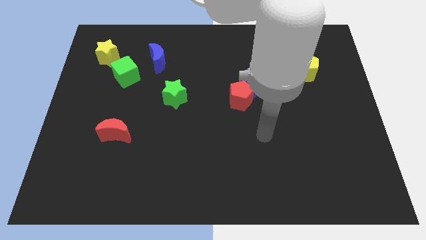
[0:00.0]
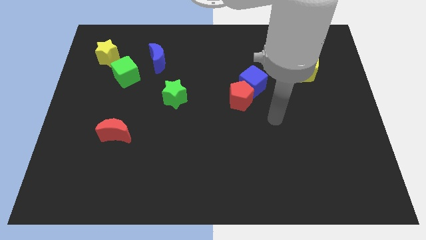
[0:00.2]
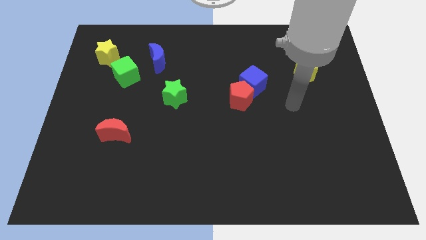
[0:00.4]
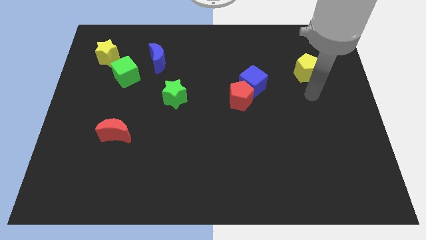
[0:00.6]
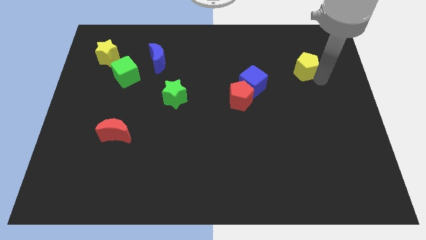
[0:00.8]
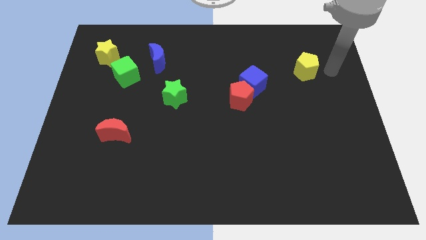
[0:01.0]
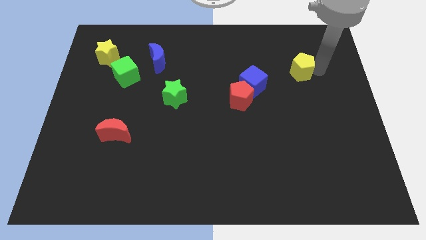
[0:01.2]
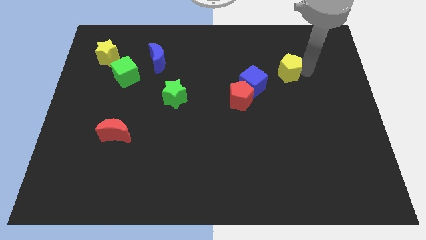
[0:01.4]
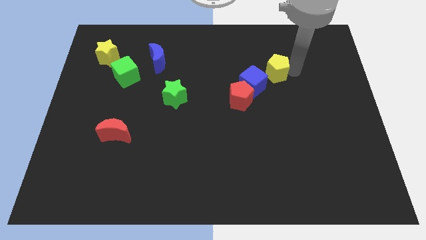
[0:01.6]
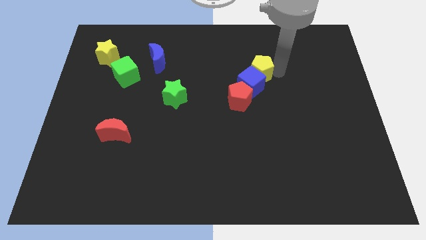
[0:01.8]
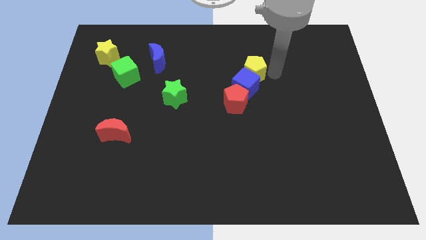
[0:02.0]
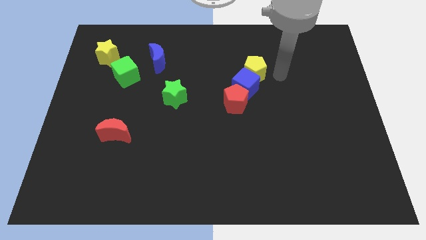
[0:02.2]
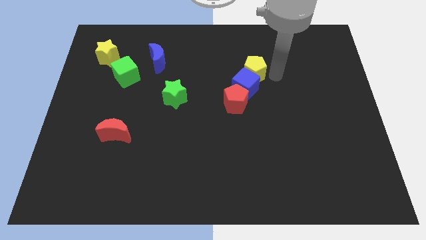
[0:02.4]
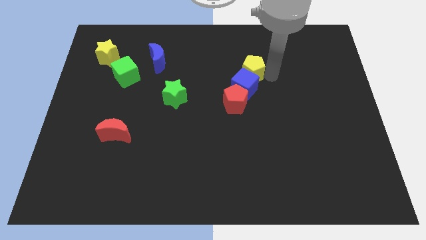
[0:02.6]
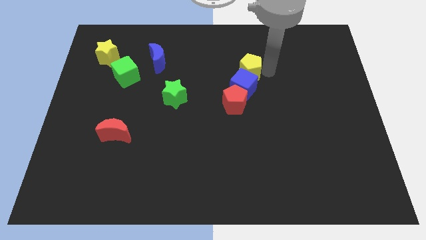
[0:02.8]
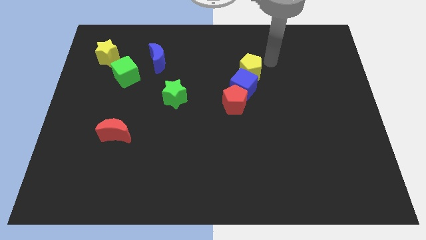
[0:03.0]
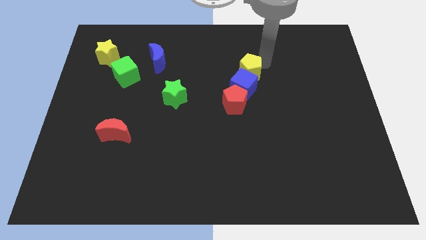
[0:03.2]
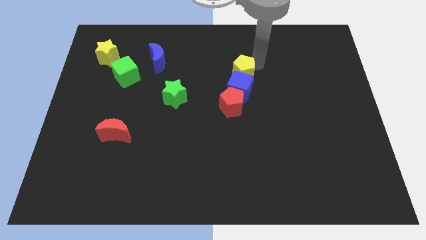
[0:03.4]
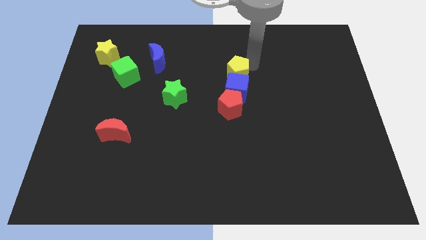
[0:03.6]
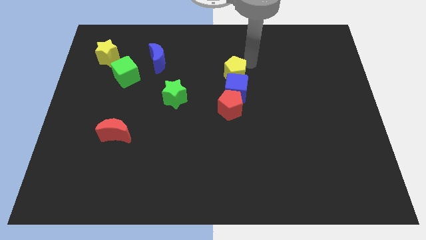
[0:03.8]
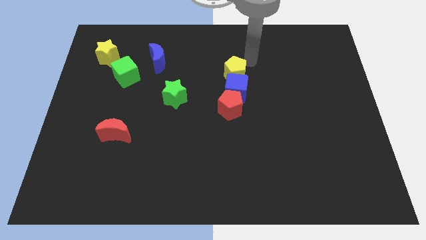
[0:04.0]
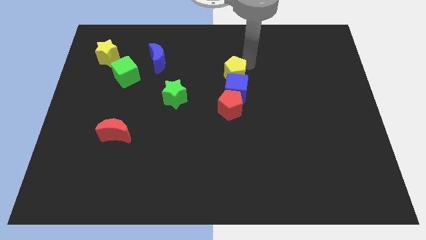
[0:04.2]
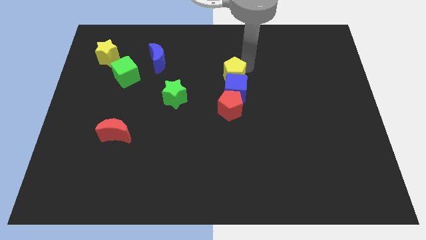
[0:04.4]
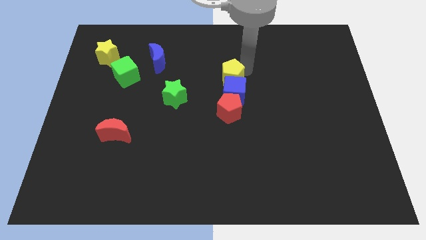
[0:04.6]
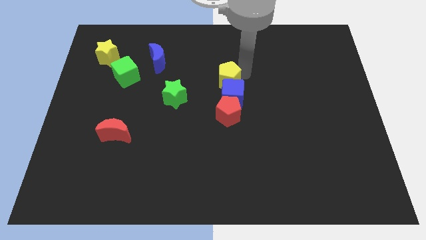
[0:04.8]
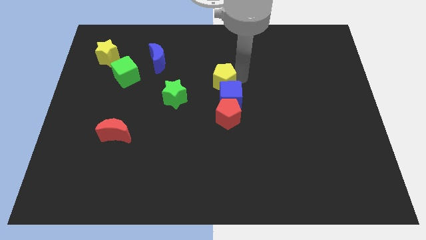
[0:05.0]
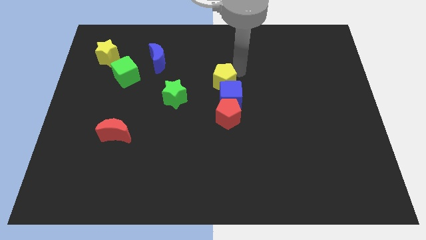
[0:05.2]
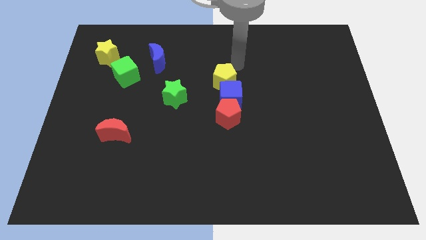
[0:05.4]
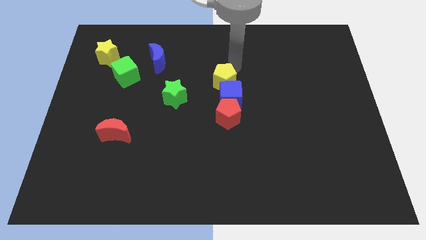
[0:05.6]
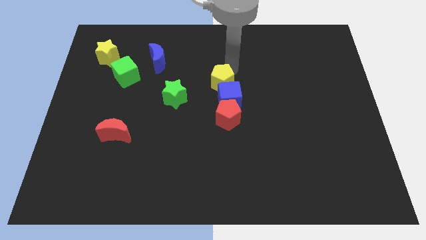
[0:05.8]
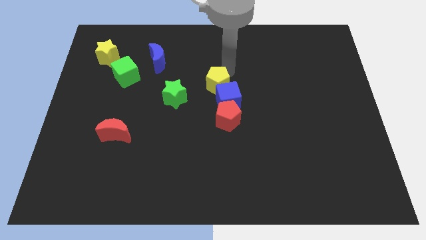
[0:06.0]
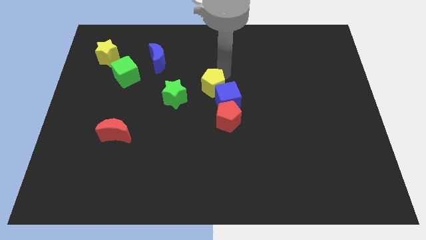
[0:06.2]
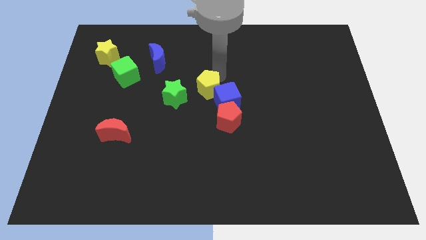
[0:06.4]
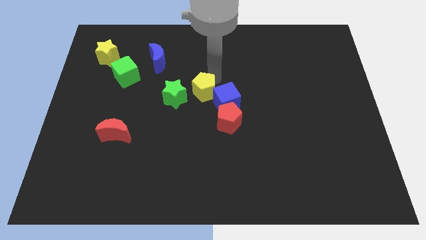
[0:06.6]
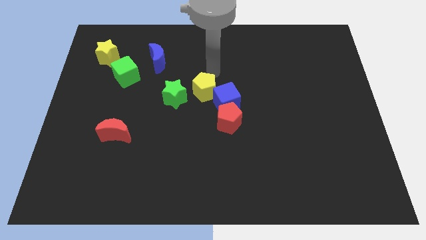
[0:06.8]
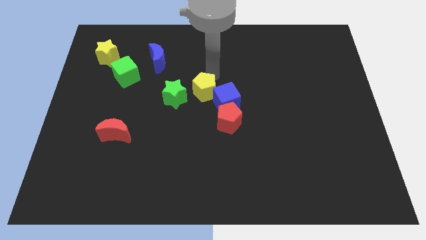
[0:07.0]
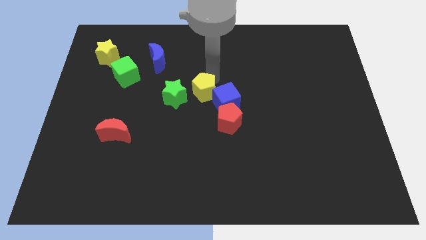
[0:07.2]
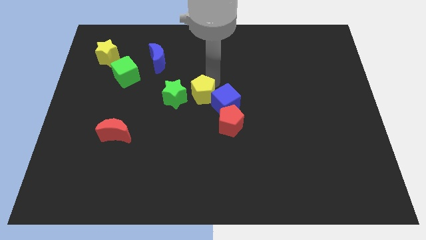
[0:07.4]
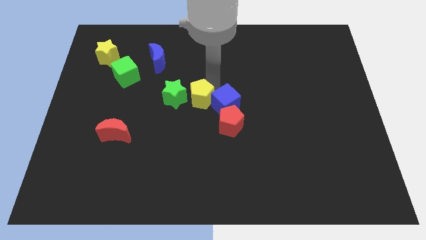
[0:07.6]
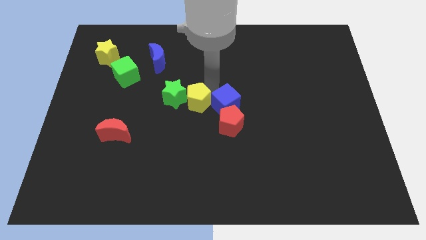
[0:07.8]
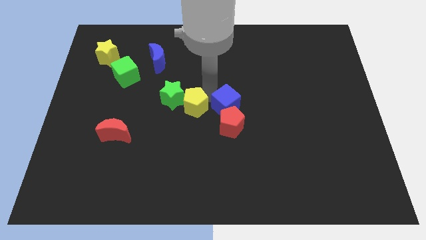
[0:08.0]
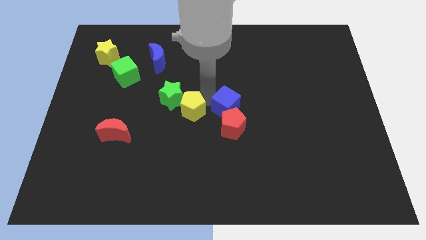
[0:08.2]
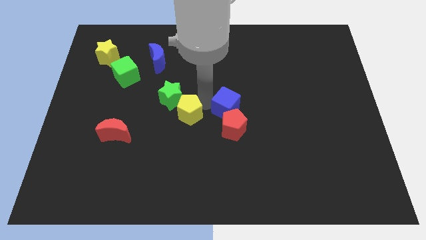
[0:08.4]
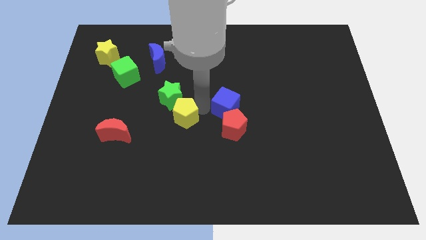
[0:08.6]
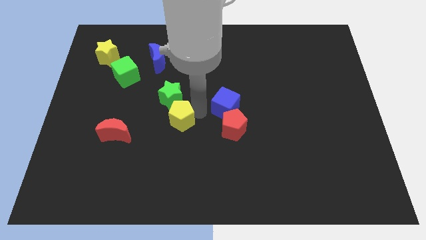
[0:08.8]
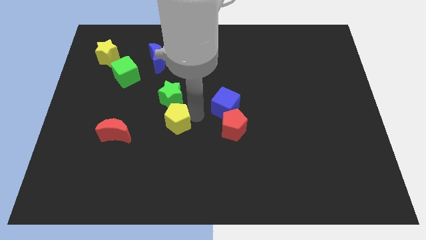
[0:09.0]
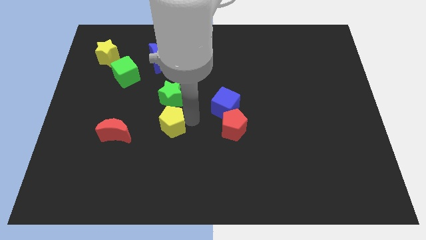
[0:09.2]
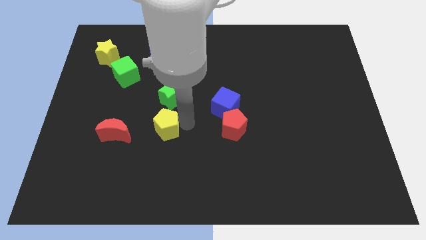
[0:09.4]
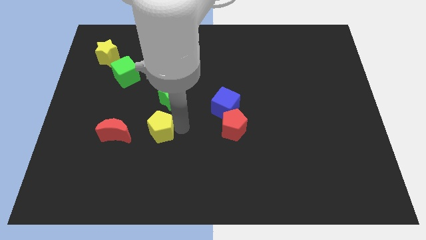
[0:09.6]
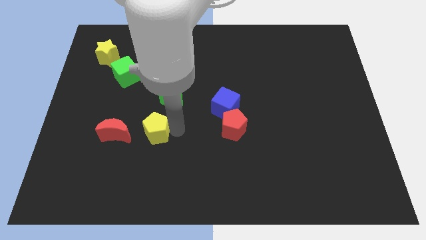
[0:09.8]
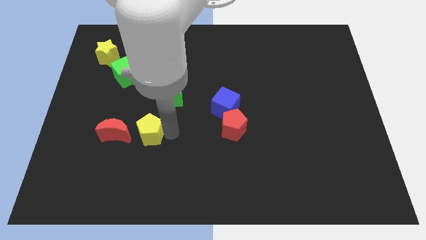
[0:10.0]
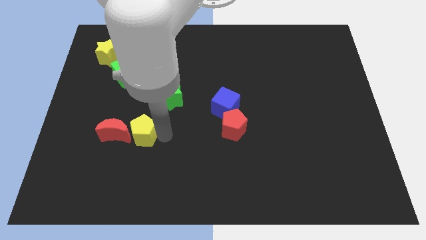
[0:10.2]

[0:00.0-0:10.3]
put the yellow pentagon next to the red moon

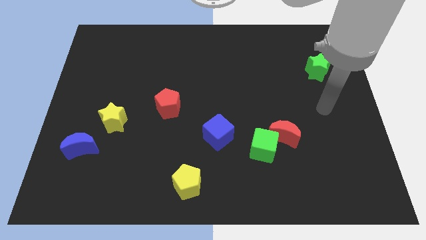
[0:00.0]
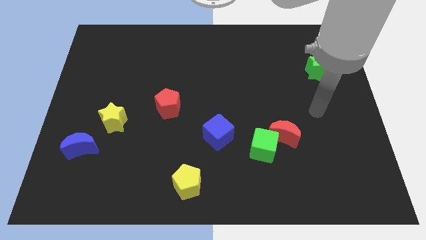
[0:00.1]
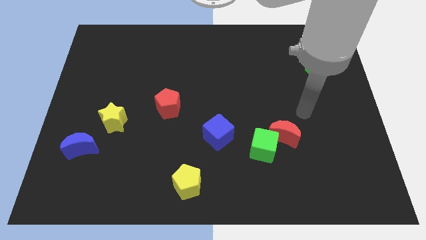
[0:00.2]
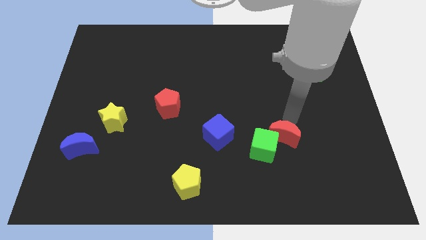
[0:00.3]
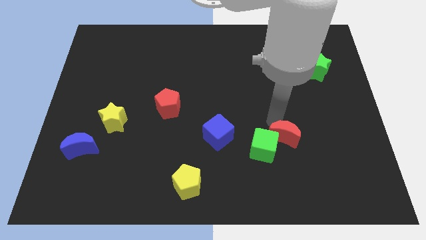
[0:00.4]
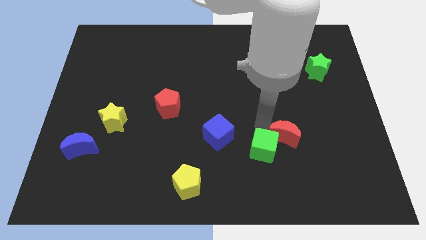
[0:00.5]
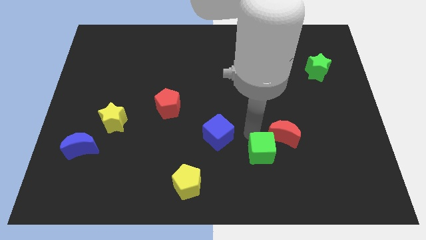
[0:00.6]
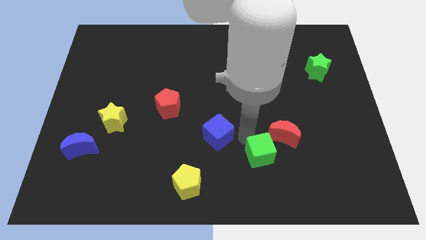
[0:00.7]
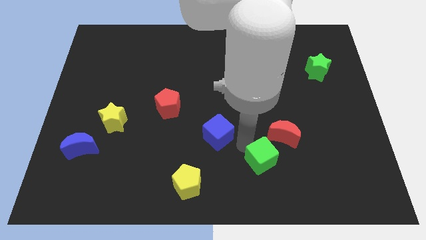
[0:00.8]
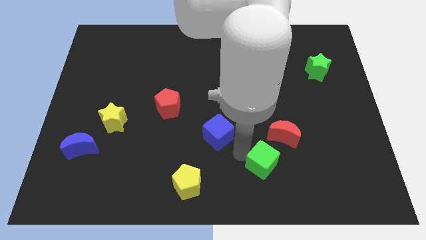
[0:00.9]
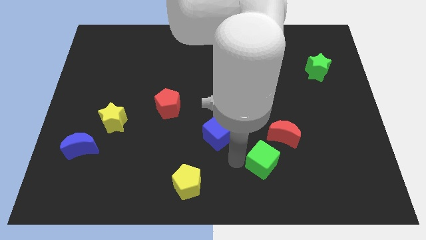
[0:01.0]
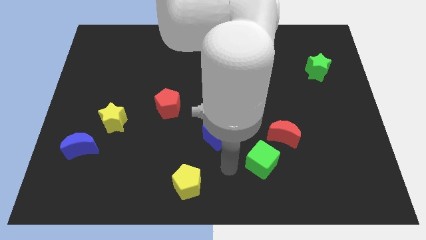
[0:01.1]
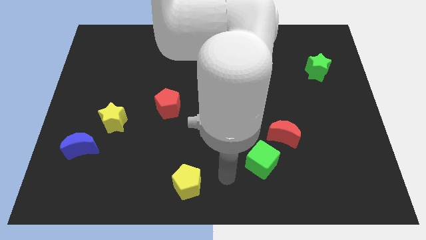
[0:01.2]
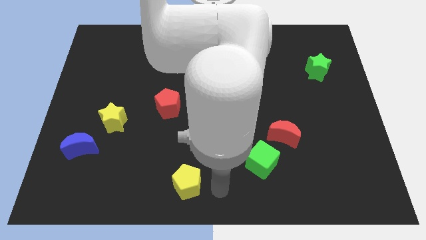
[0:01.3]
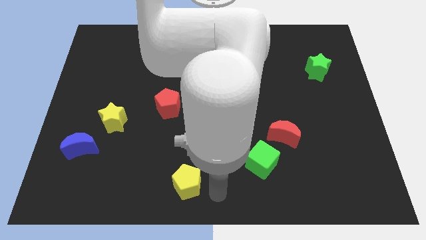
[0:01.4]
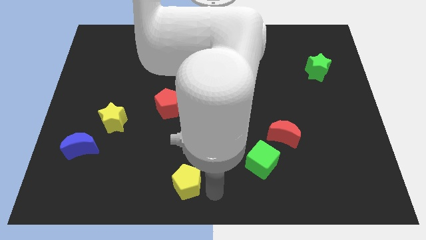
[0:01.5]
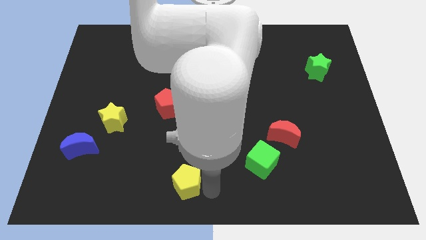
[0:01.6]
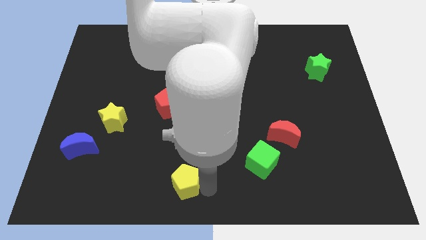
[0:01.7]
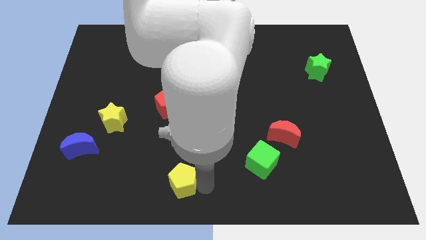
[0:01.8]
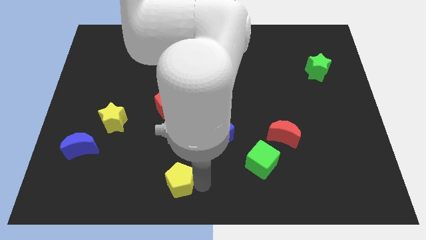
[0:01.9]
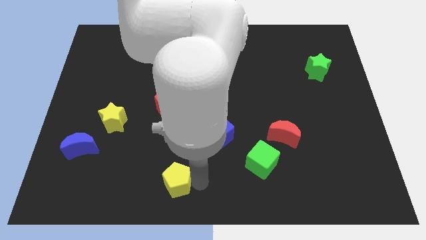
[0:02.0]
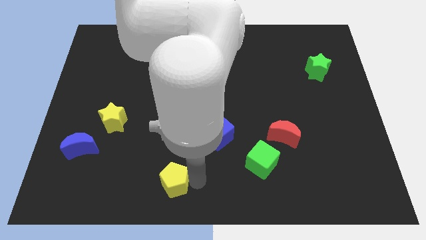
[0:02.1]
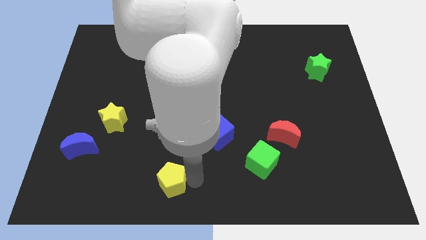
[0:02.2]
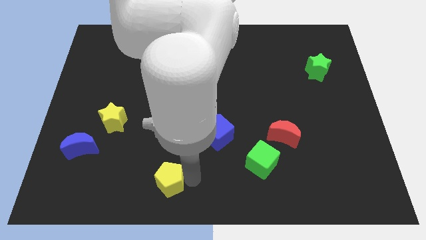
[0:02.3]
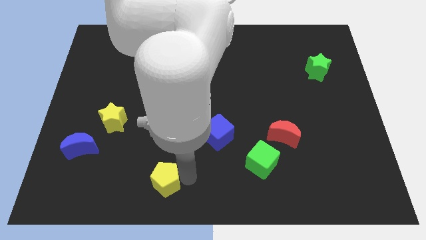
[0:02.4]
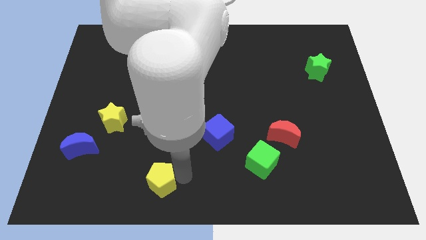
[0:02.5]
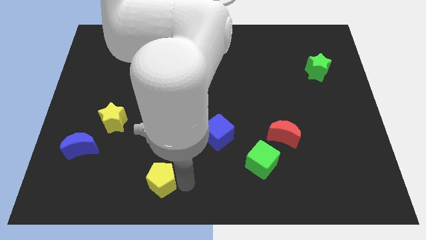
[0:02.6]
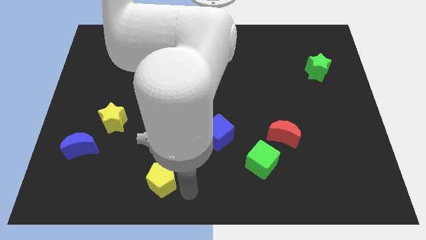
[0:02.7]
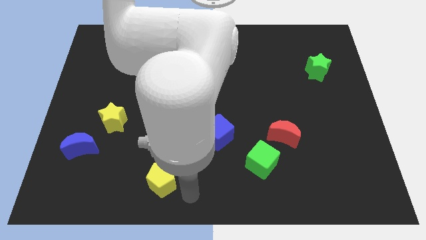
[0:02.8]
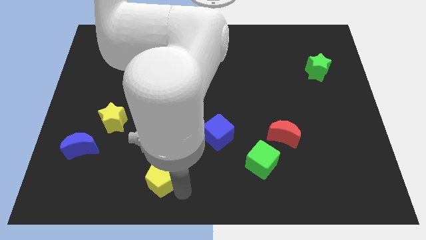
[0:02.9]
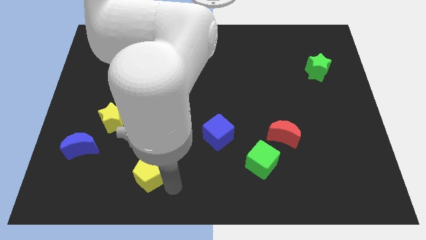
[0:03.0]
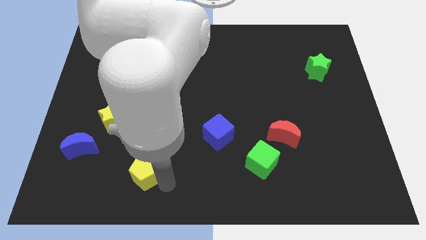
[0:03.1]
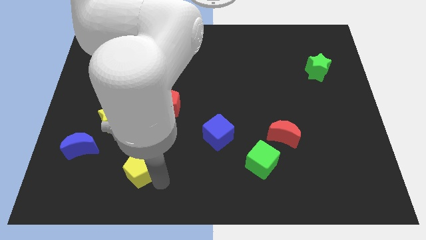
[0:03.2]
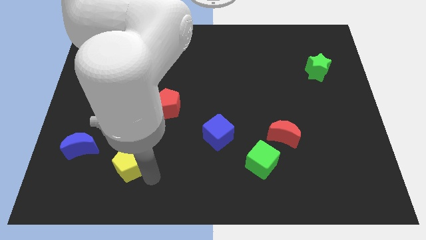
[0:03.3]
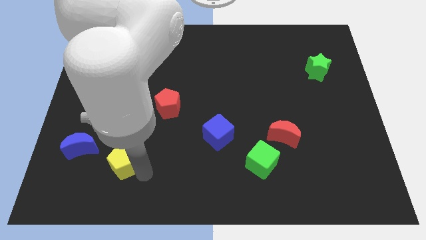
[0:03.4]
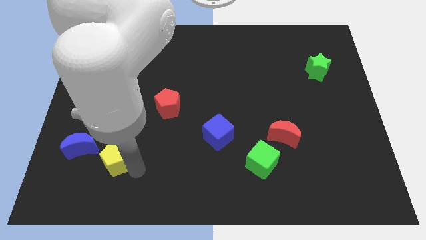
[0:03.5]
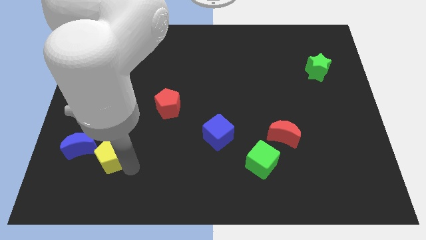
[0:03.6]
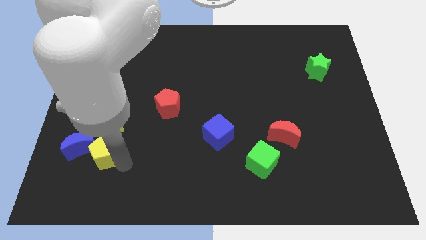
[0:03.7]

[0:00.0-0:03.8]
put the yellow pentagon close to the blue moon
